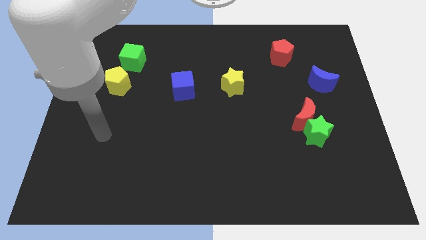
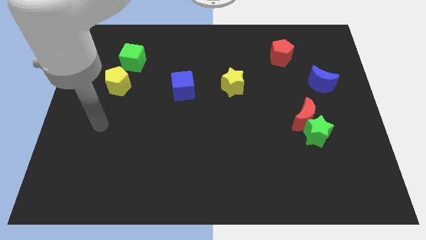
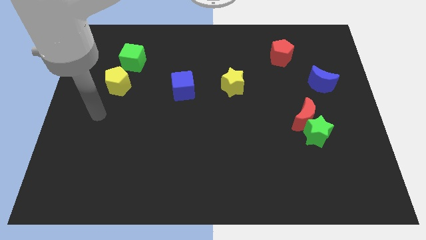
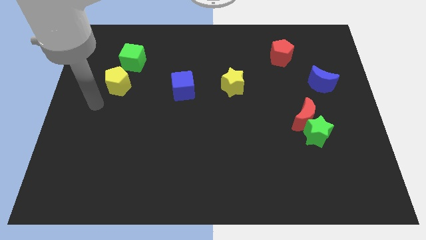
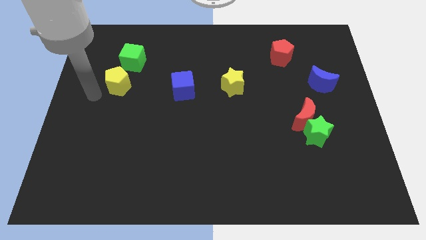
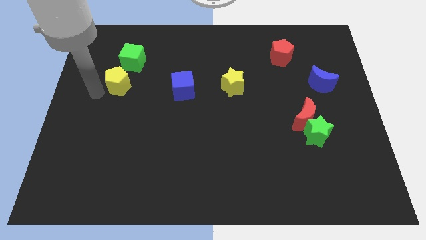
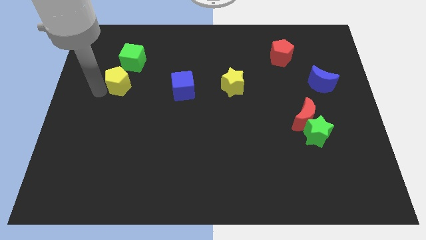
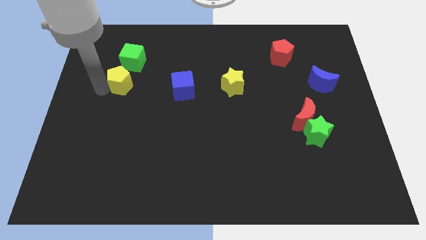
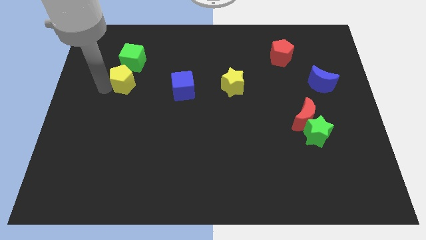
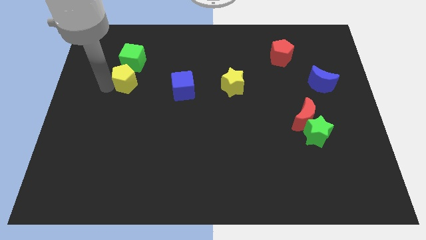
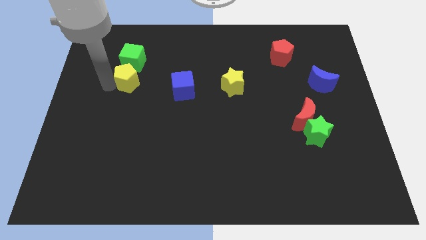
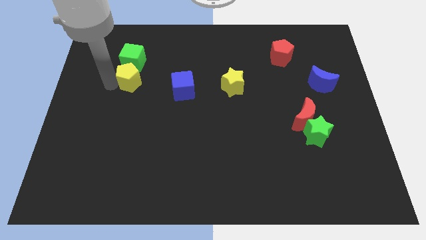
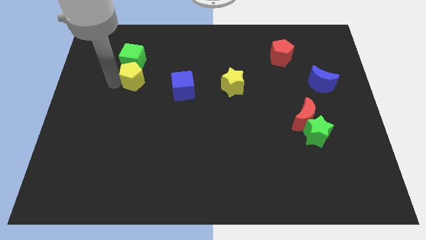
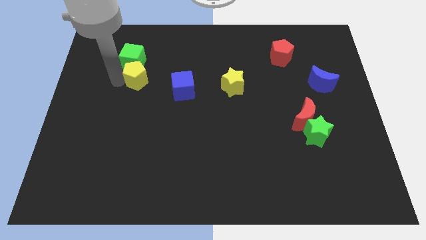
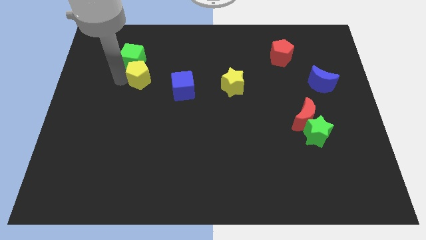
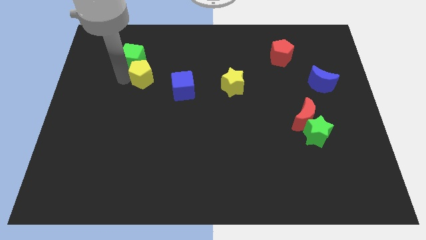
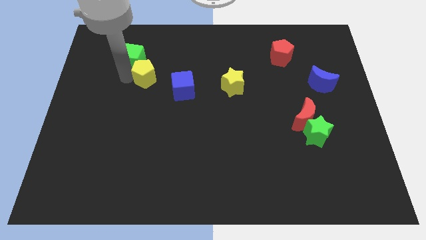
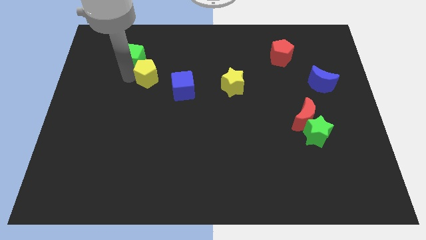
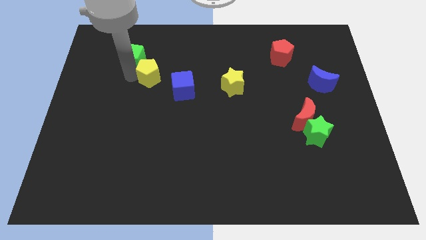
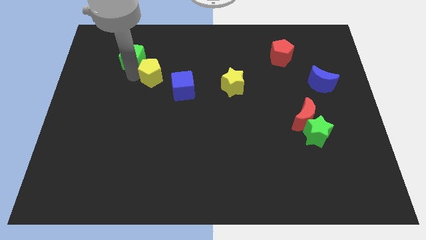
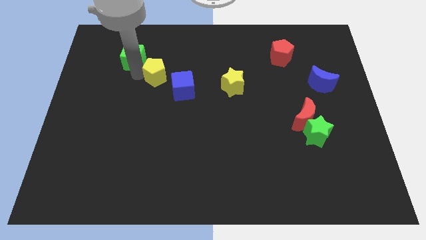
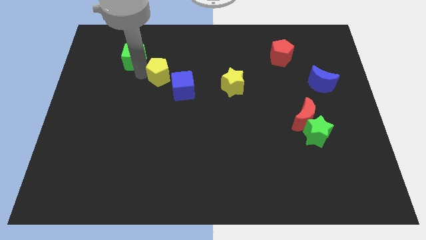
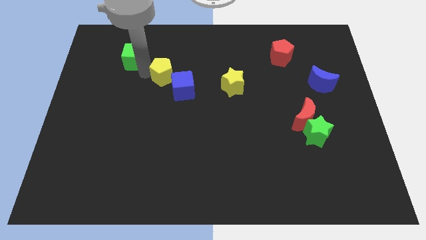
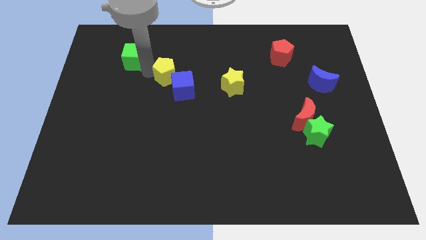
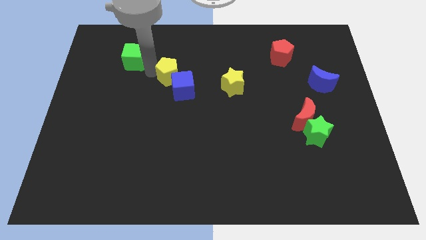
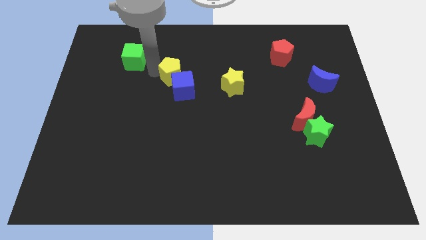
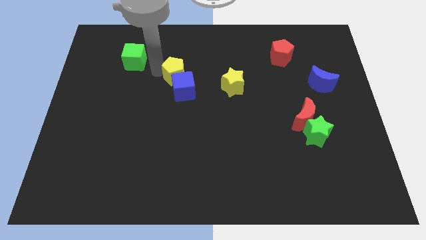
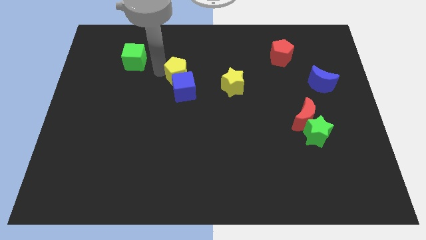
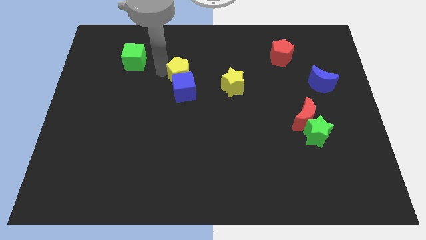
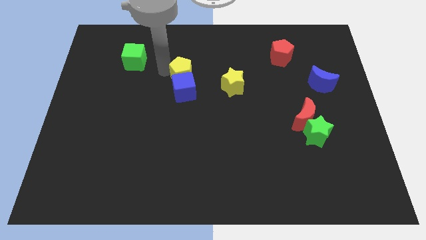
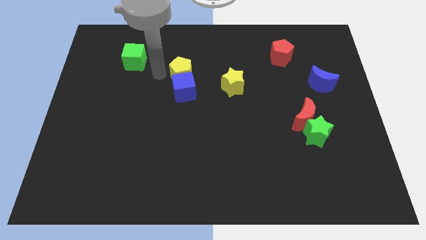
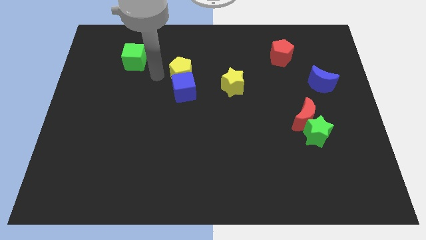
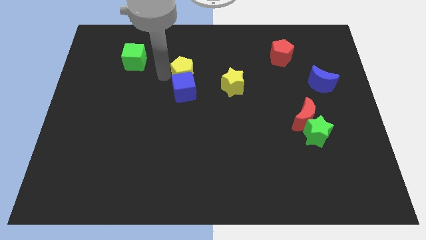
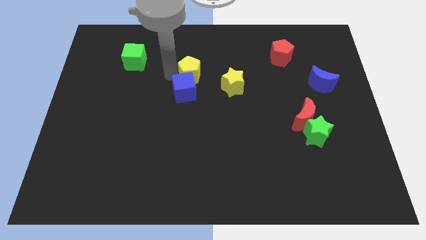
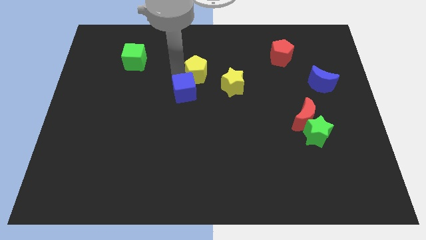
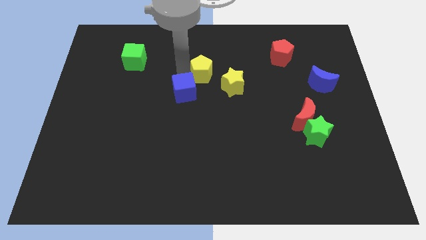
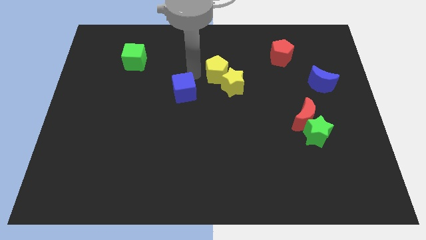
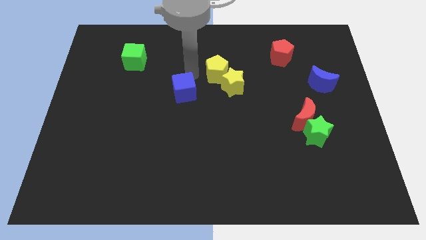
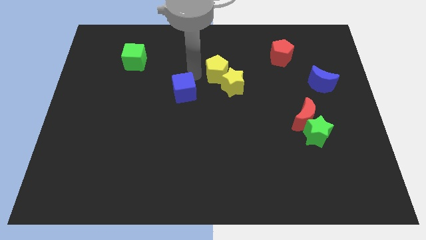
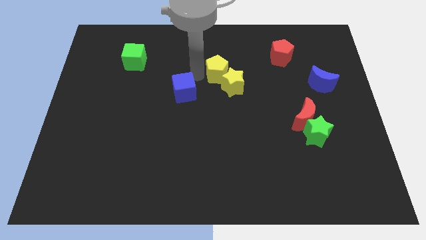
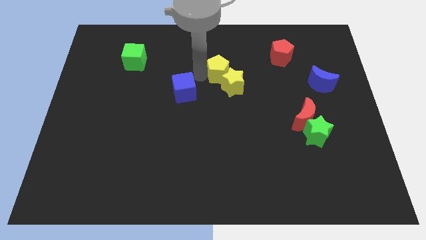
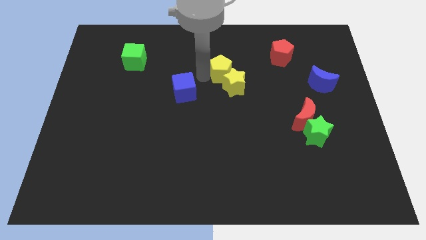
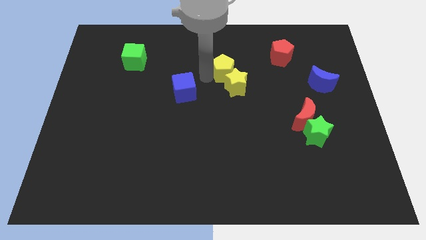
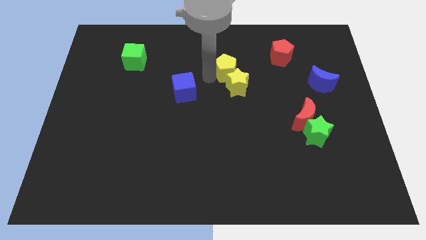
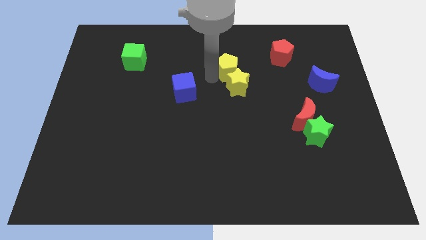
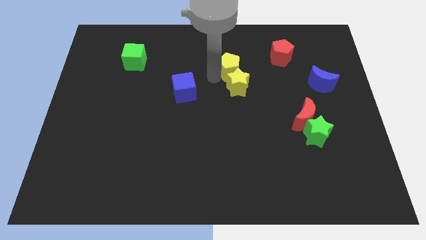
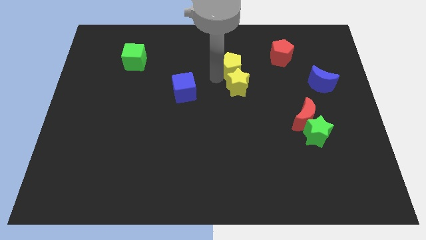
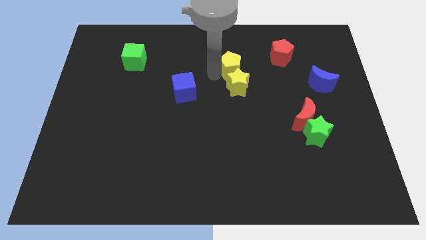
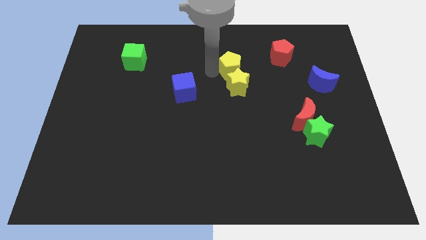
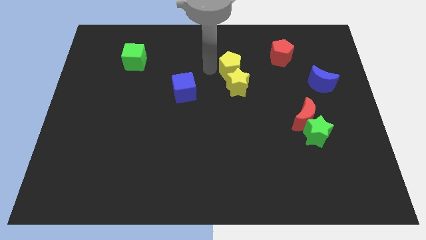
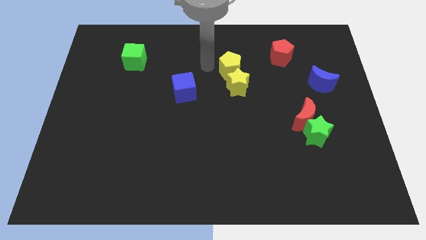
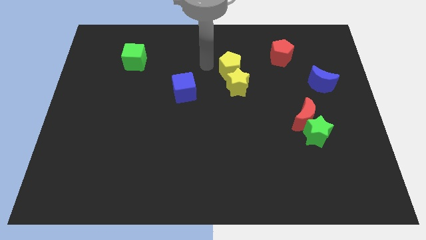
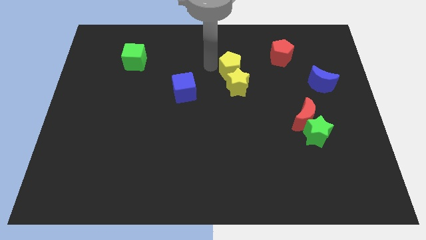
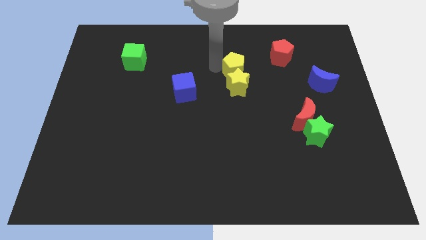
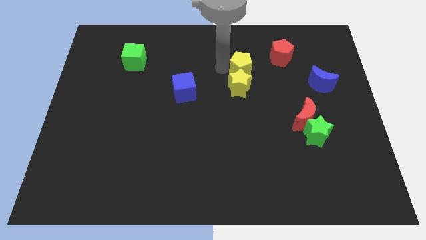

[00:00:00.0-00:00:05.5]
slide the yellow pentagon to the bottom left of the red pentagon

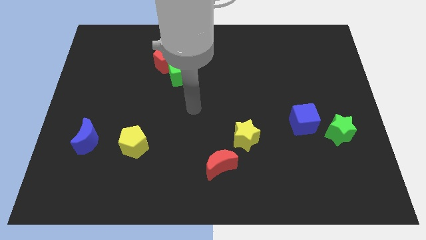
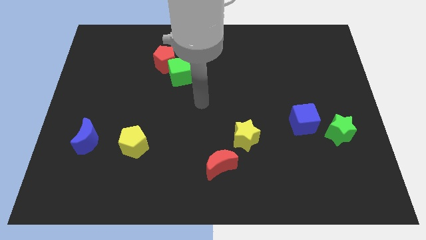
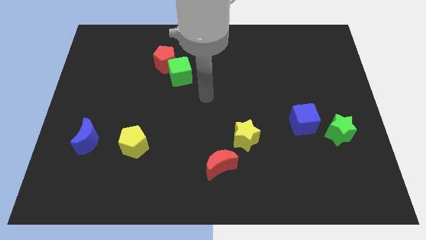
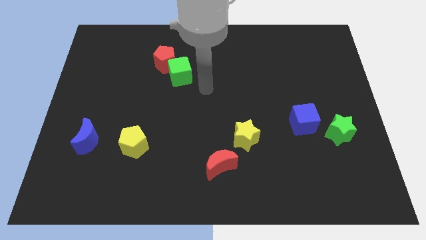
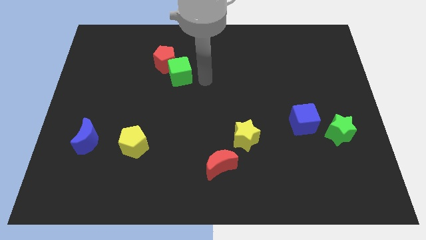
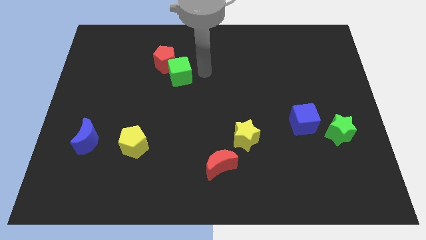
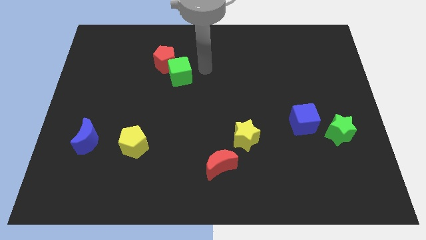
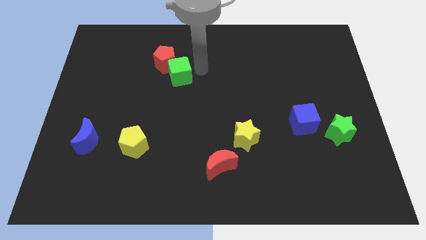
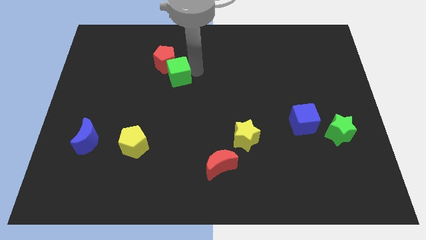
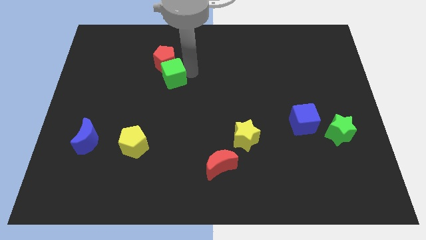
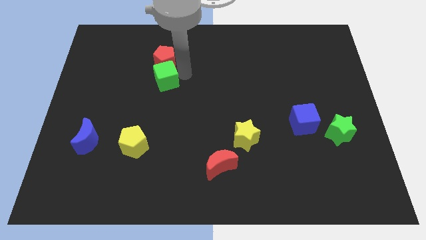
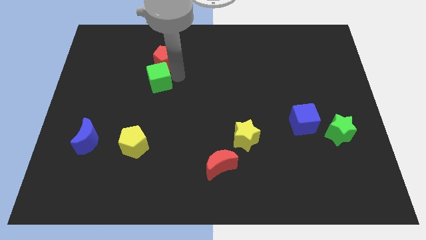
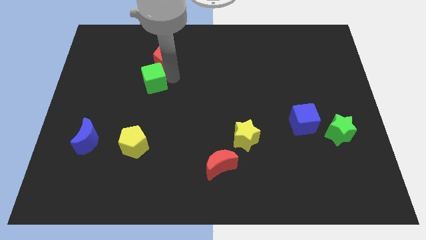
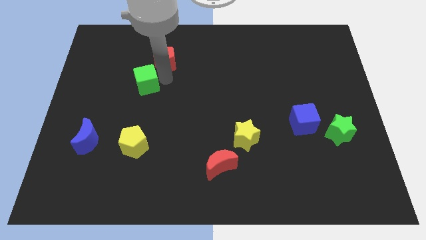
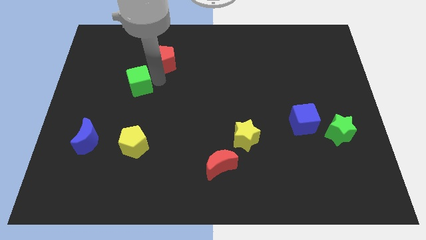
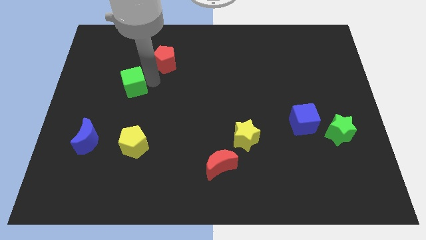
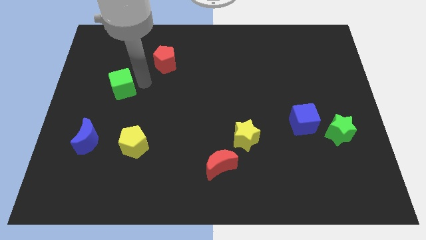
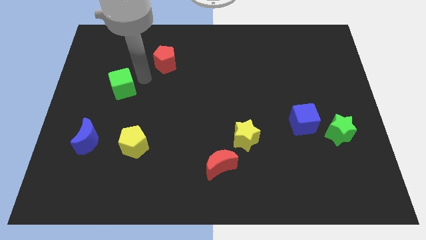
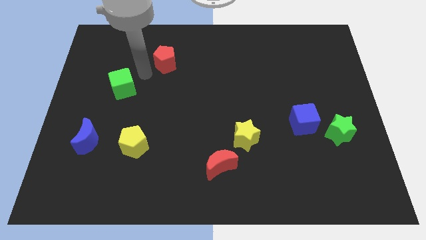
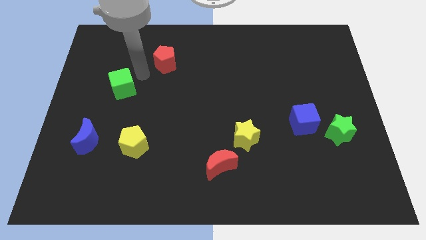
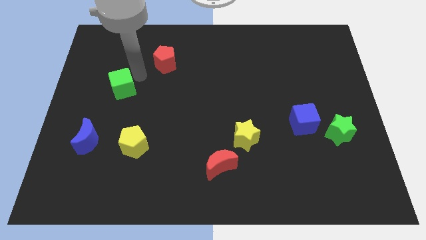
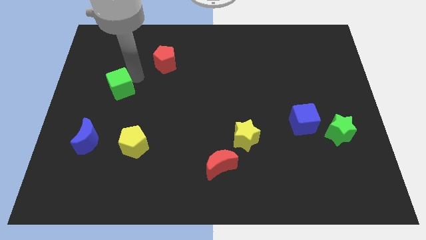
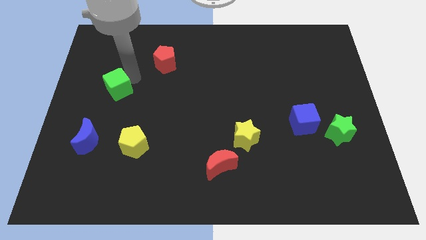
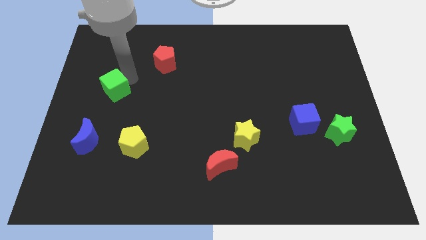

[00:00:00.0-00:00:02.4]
move the green cube to the top of the blue moon

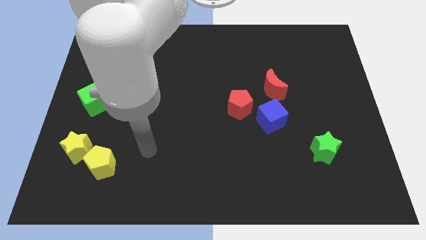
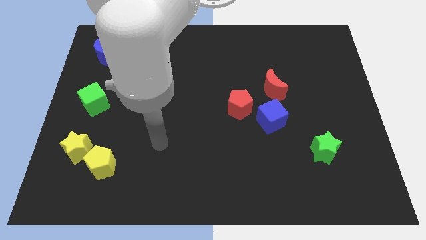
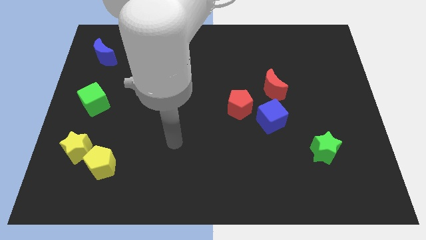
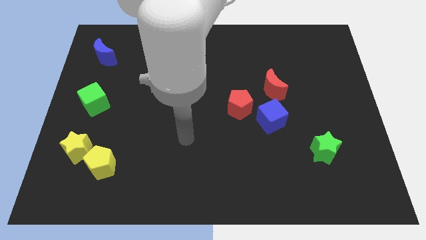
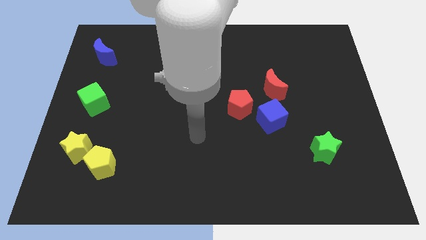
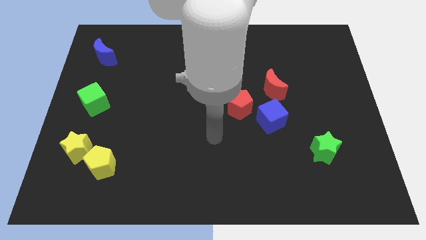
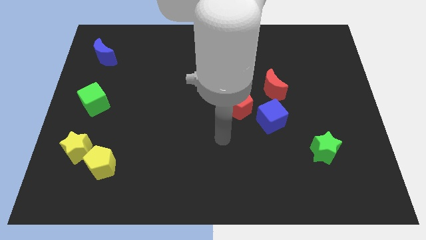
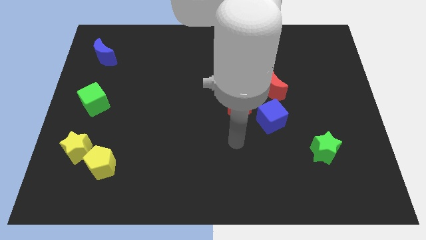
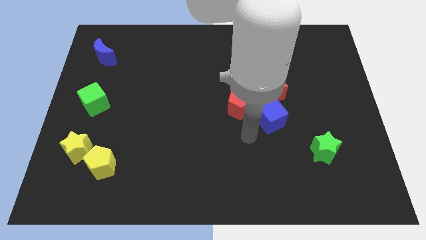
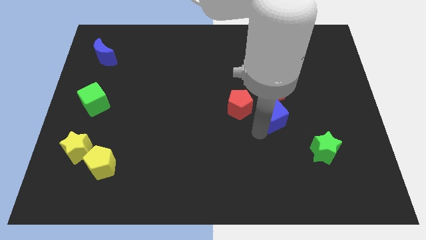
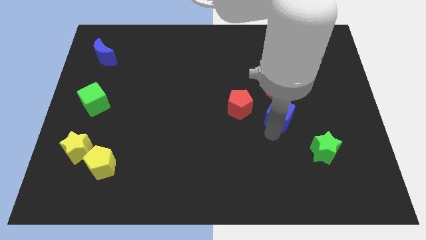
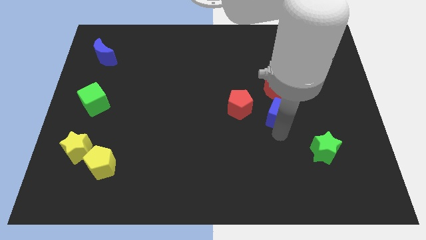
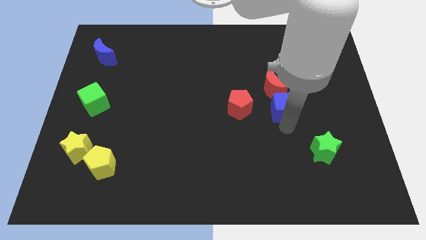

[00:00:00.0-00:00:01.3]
put the red moon to the top left side of the blue cube
